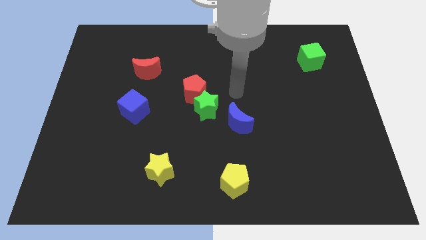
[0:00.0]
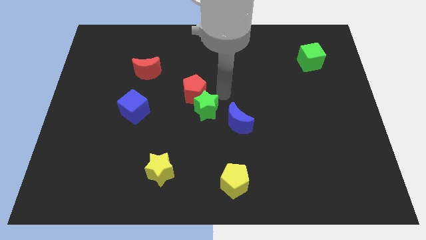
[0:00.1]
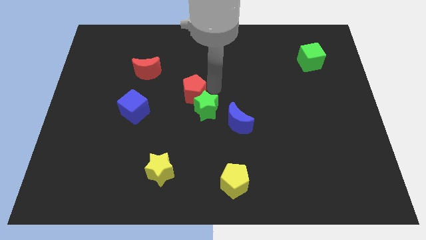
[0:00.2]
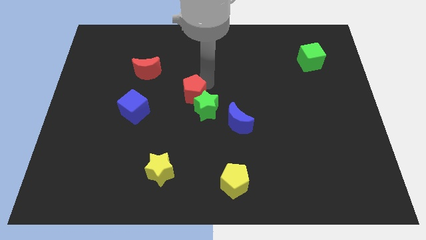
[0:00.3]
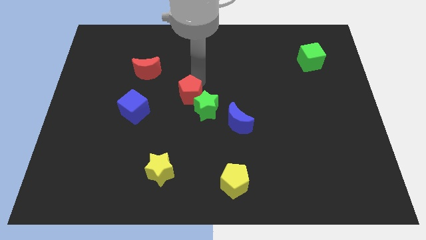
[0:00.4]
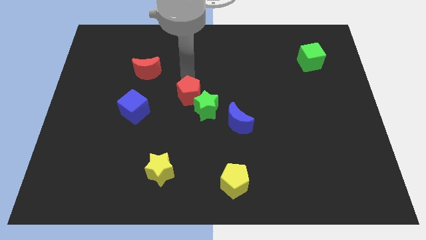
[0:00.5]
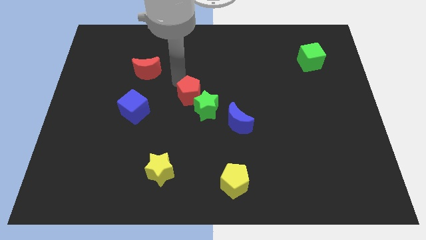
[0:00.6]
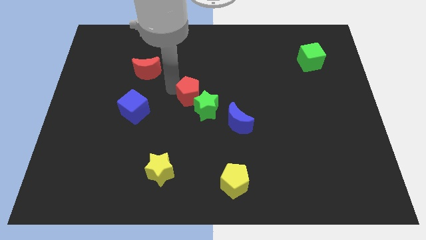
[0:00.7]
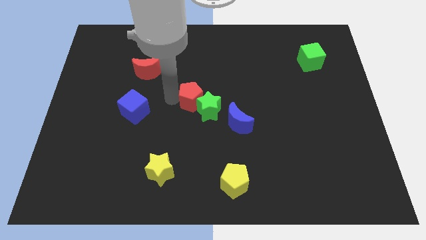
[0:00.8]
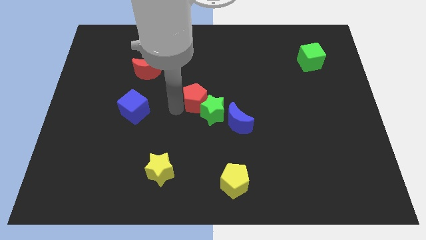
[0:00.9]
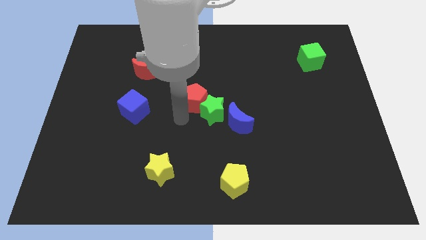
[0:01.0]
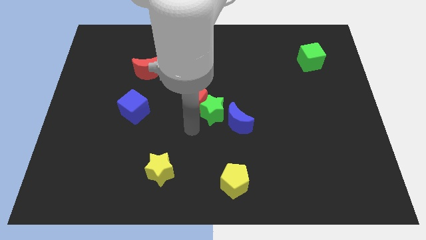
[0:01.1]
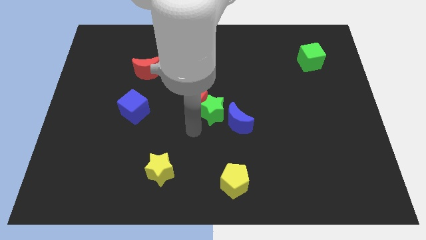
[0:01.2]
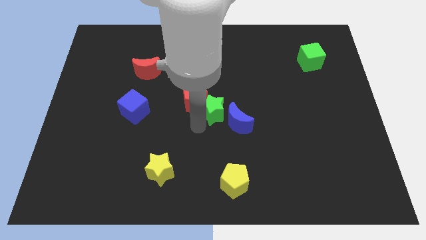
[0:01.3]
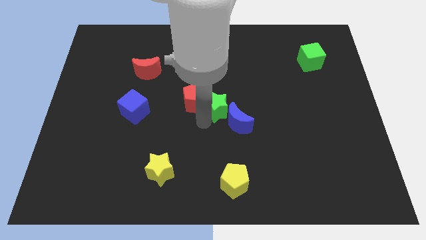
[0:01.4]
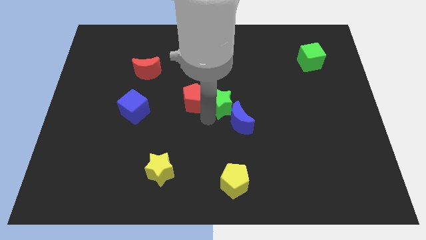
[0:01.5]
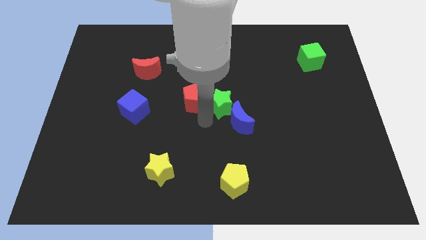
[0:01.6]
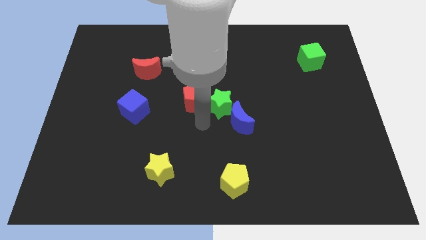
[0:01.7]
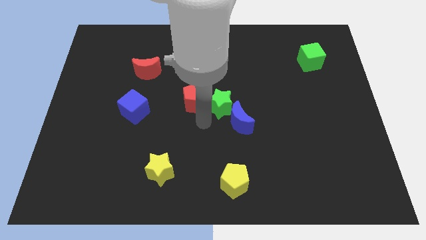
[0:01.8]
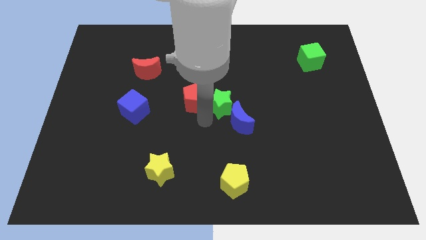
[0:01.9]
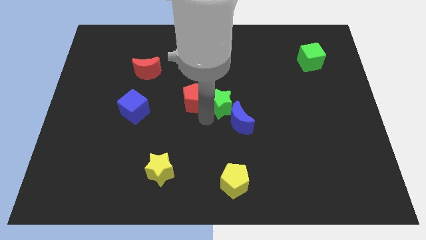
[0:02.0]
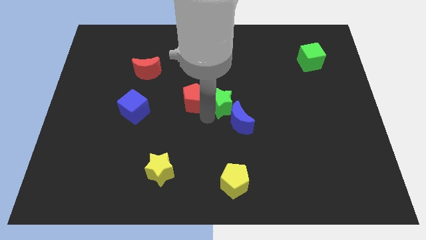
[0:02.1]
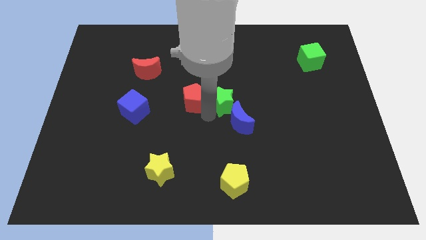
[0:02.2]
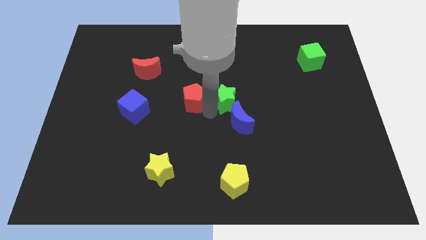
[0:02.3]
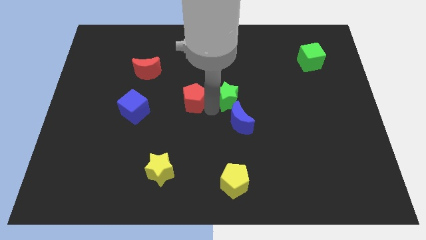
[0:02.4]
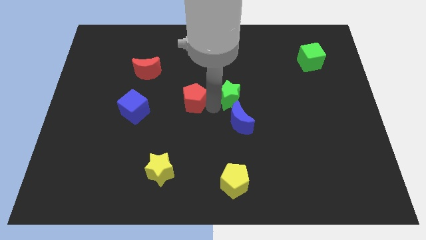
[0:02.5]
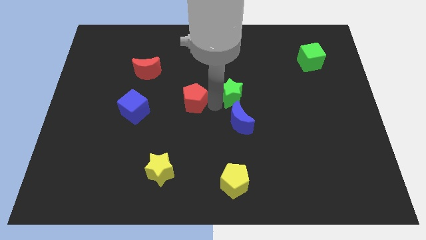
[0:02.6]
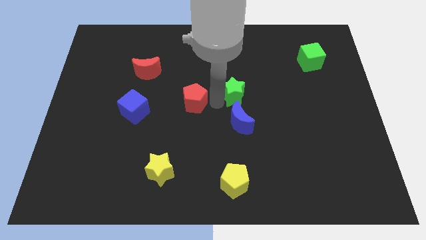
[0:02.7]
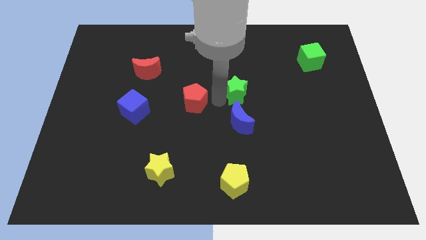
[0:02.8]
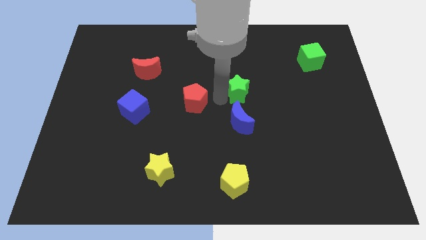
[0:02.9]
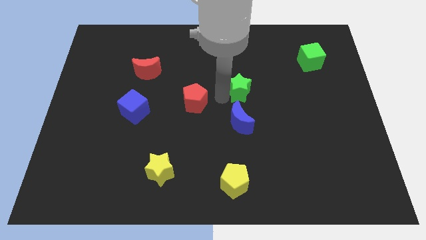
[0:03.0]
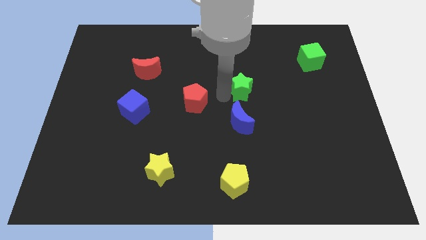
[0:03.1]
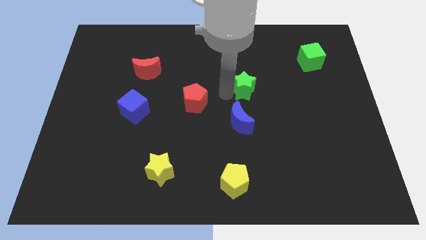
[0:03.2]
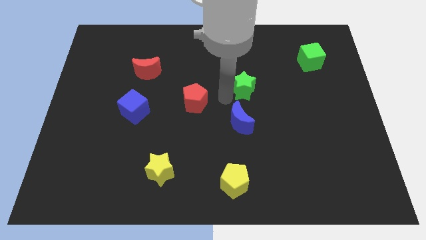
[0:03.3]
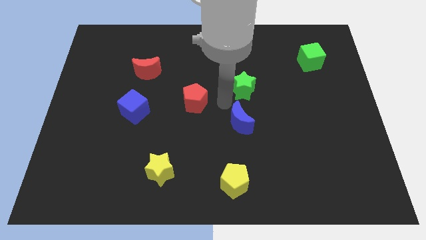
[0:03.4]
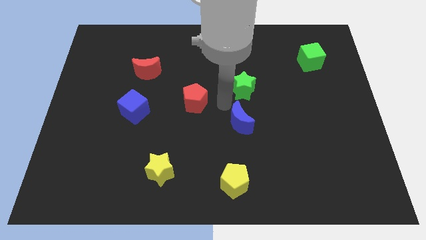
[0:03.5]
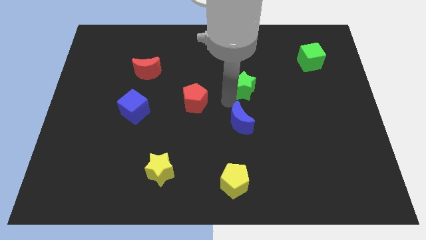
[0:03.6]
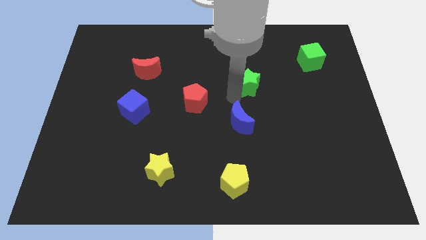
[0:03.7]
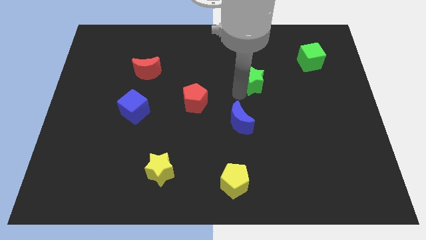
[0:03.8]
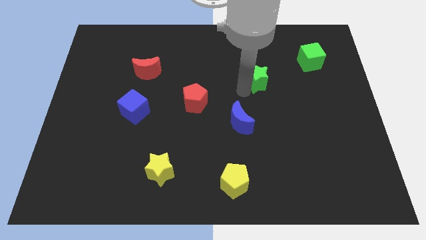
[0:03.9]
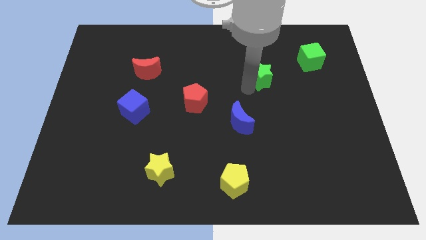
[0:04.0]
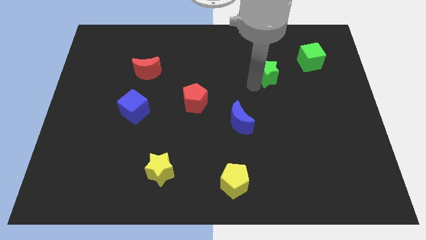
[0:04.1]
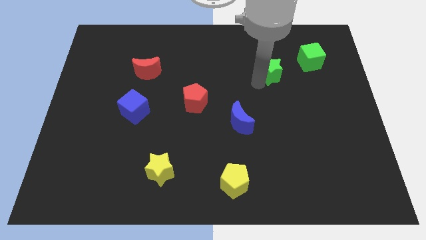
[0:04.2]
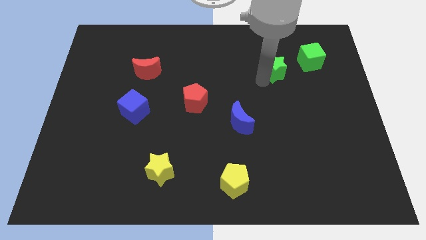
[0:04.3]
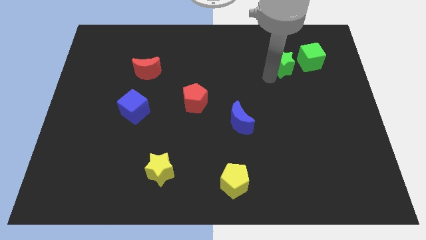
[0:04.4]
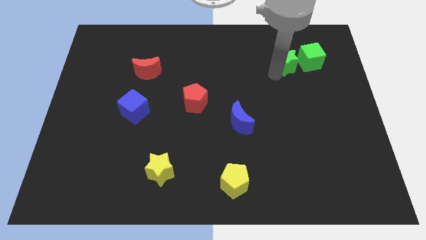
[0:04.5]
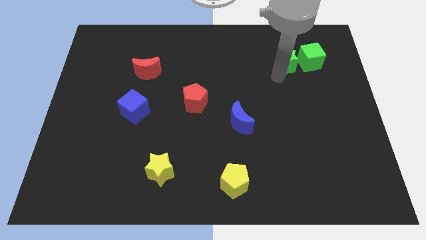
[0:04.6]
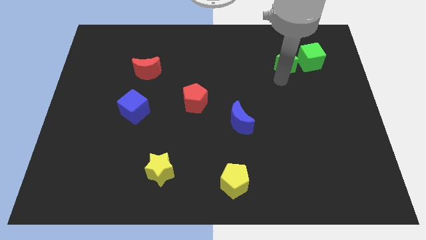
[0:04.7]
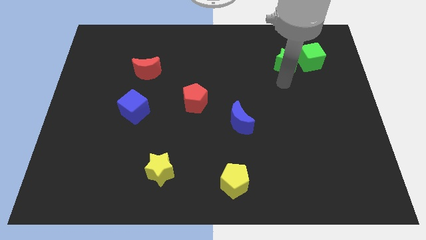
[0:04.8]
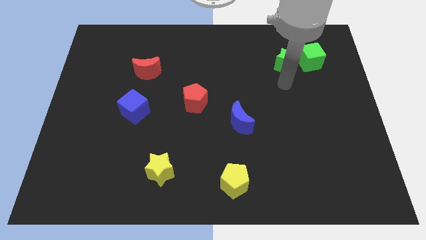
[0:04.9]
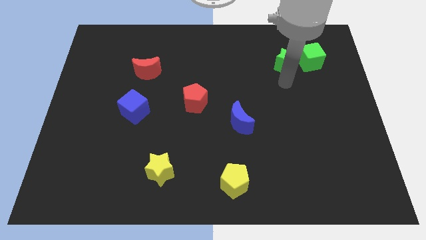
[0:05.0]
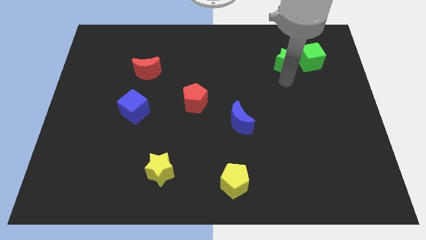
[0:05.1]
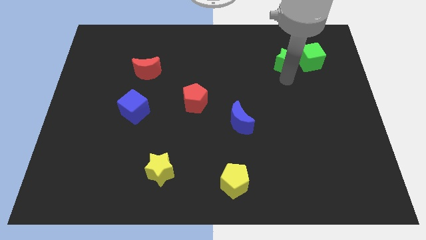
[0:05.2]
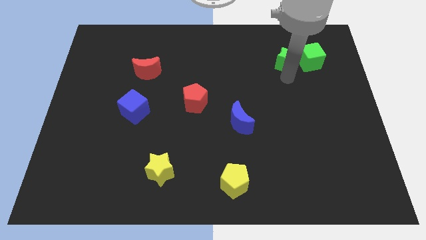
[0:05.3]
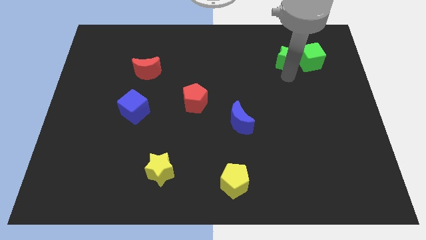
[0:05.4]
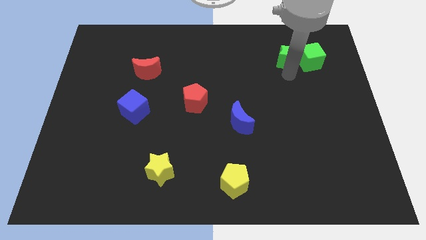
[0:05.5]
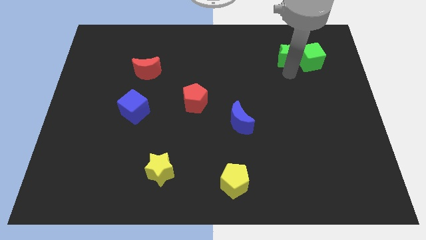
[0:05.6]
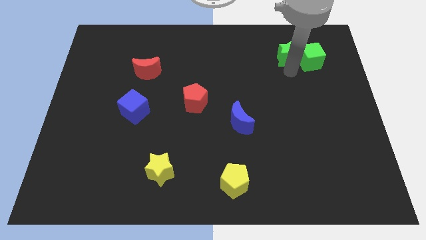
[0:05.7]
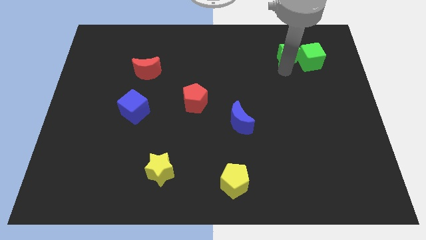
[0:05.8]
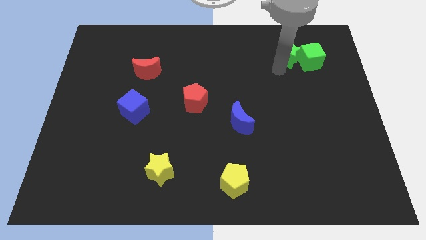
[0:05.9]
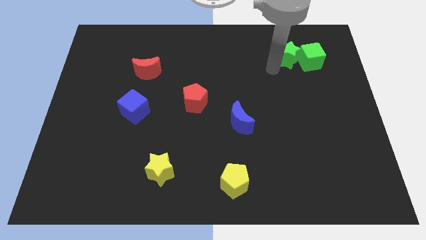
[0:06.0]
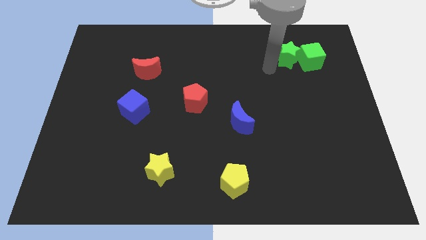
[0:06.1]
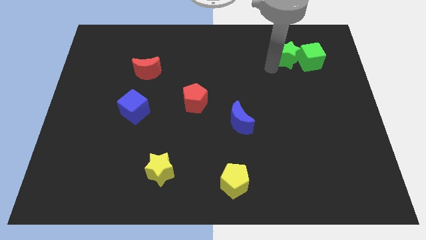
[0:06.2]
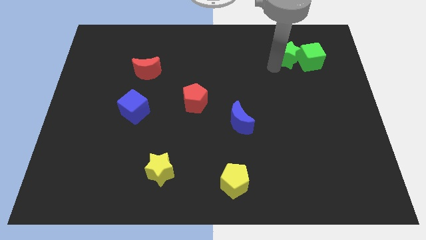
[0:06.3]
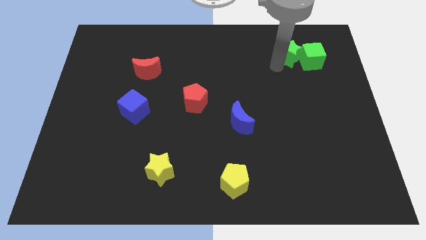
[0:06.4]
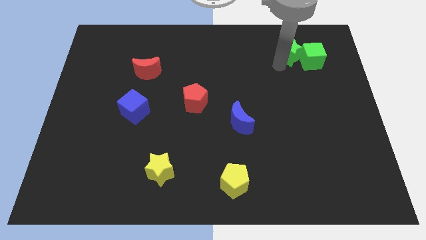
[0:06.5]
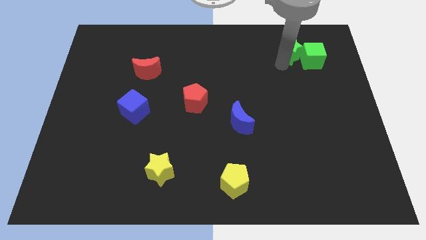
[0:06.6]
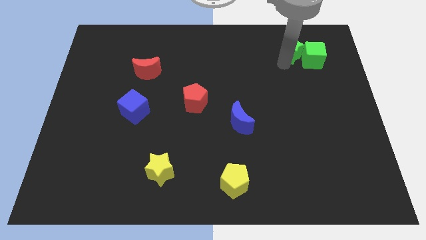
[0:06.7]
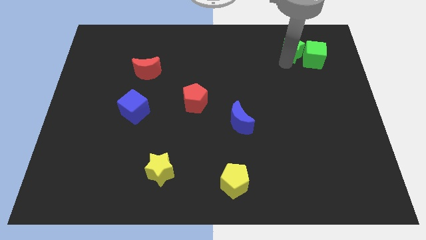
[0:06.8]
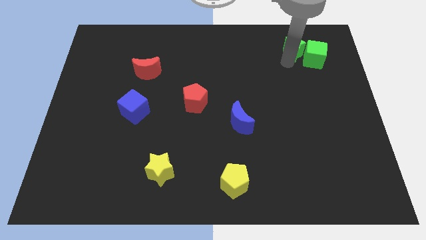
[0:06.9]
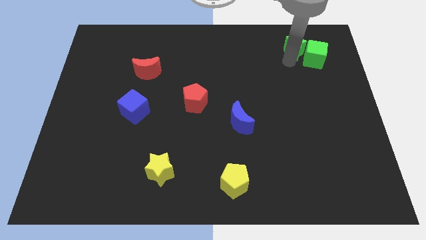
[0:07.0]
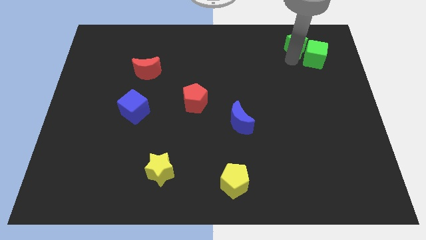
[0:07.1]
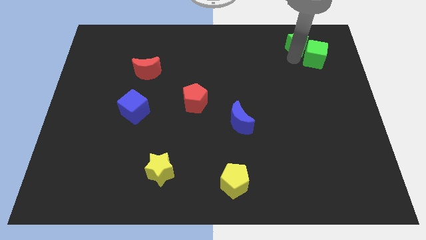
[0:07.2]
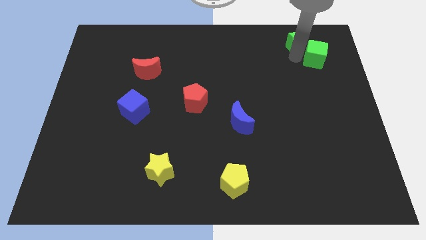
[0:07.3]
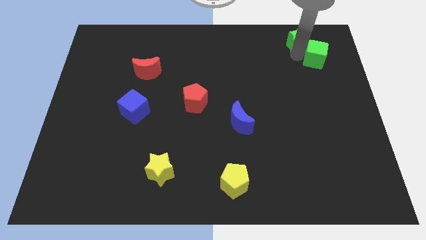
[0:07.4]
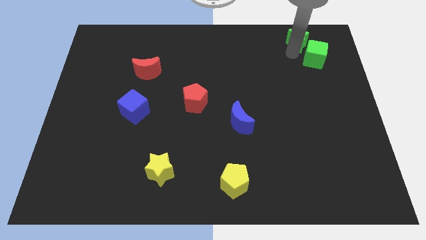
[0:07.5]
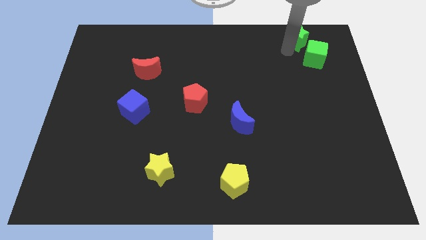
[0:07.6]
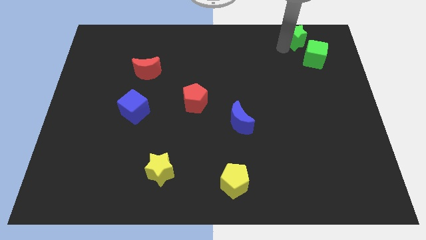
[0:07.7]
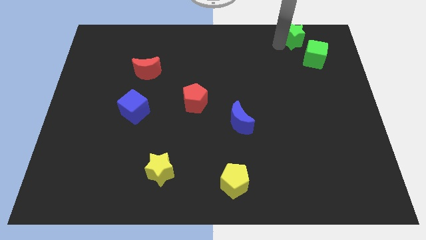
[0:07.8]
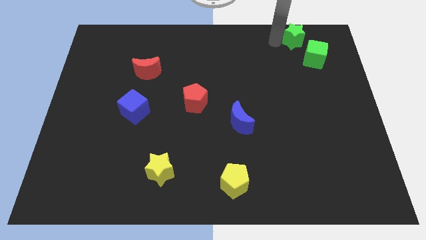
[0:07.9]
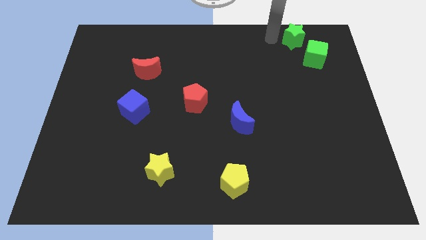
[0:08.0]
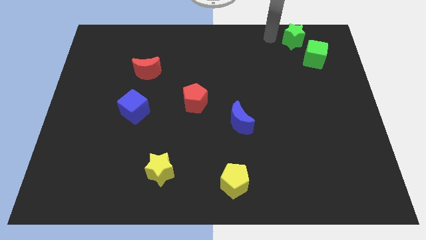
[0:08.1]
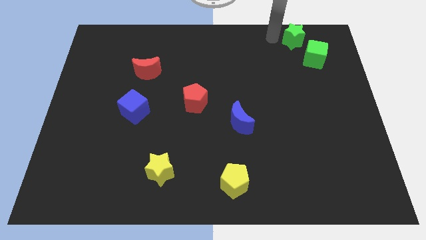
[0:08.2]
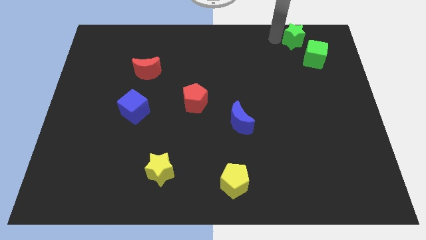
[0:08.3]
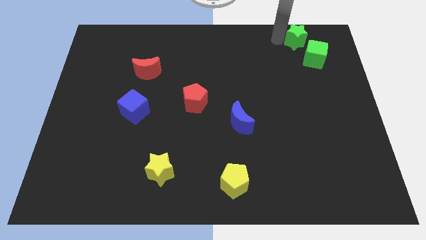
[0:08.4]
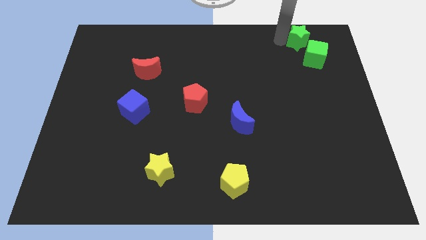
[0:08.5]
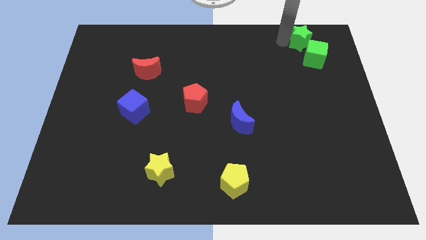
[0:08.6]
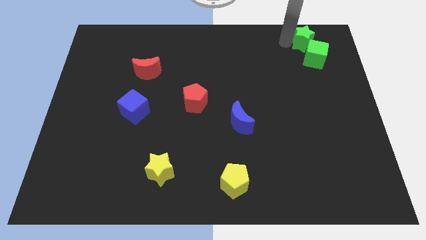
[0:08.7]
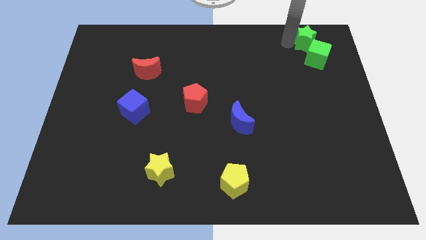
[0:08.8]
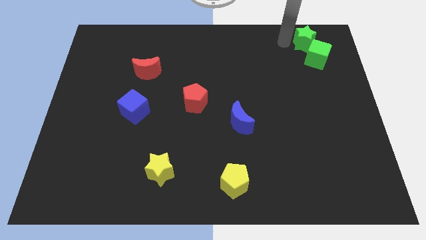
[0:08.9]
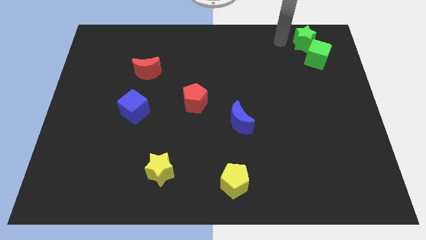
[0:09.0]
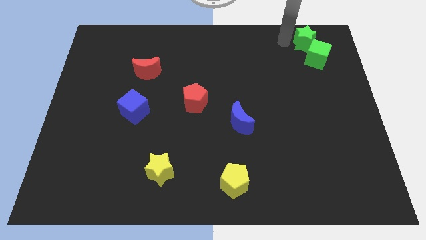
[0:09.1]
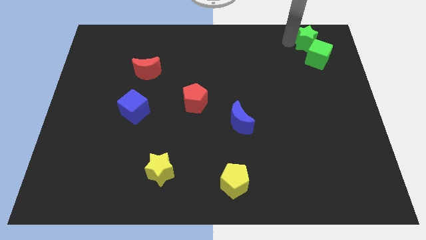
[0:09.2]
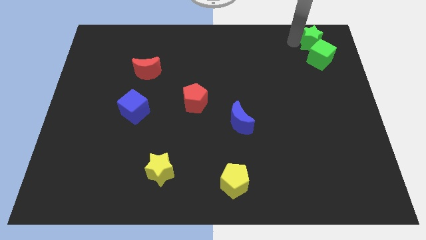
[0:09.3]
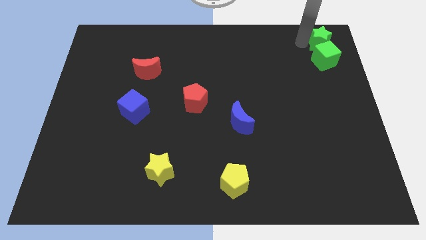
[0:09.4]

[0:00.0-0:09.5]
slide the green star to the top right corner
